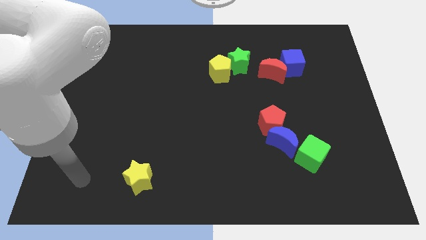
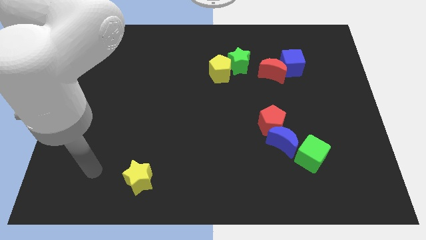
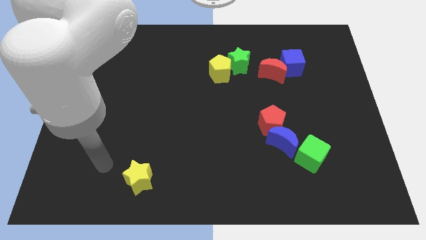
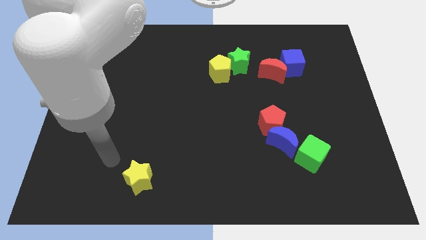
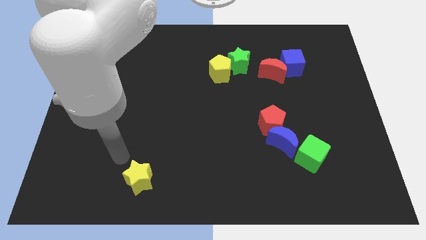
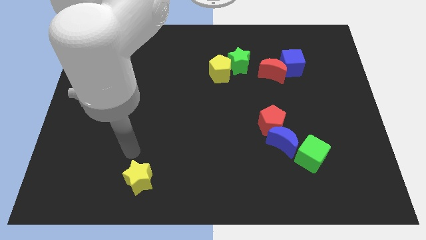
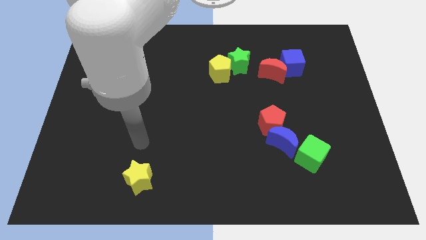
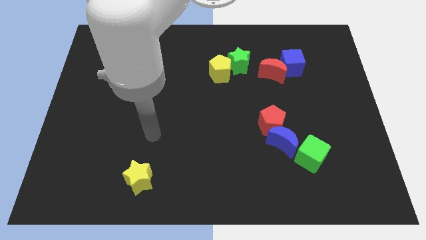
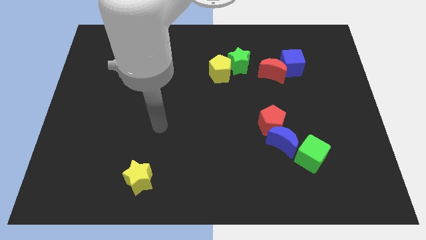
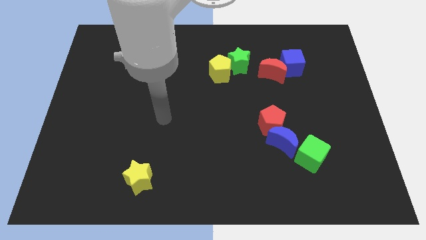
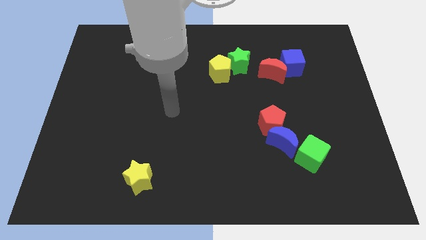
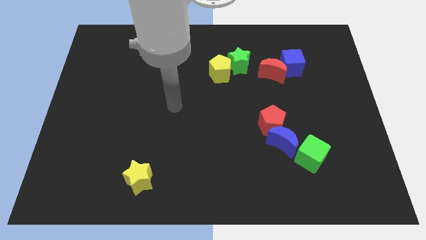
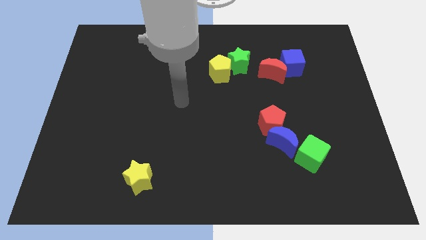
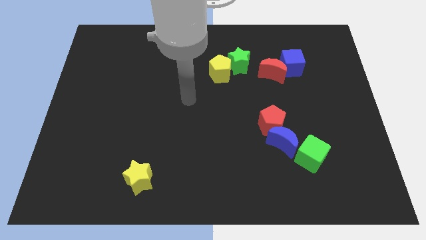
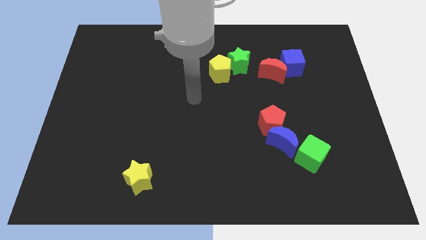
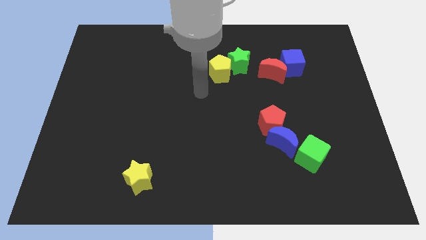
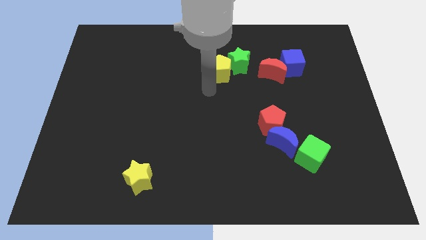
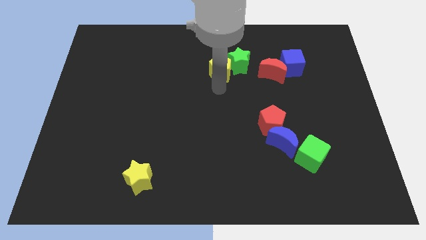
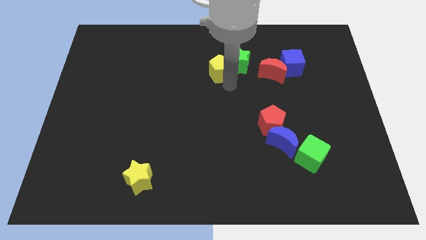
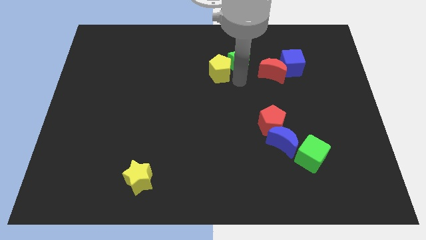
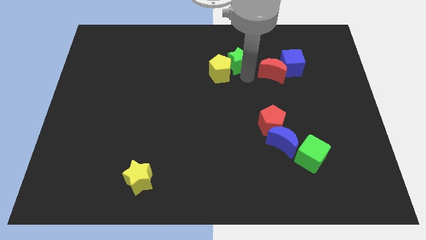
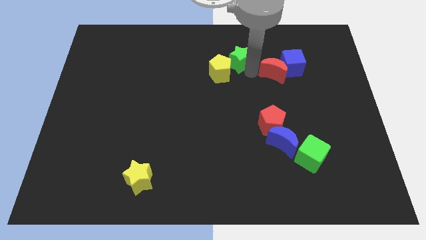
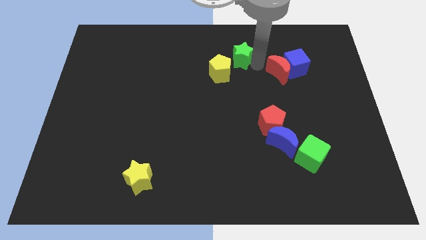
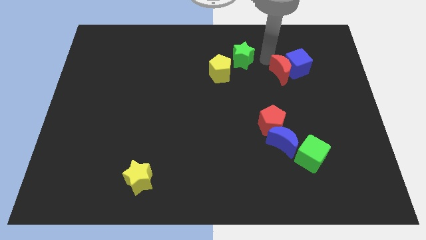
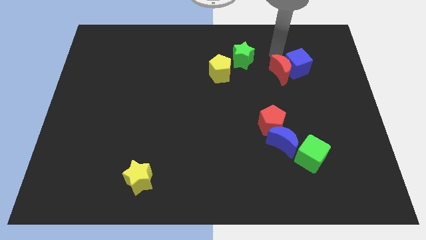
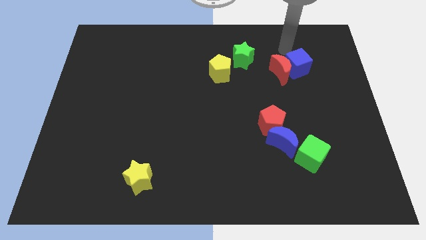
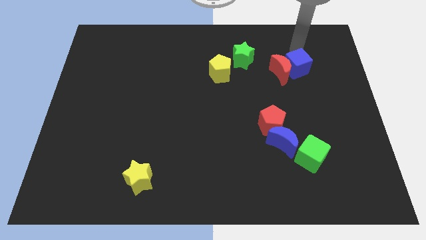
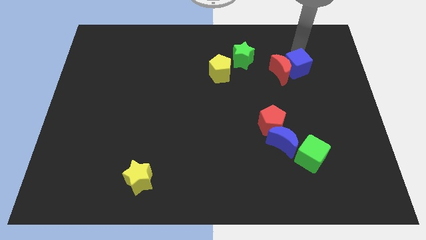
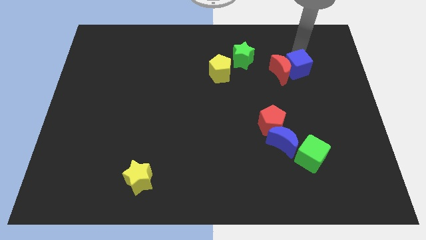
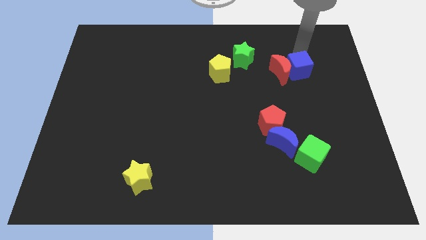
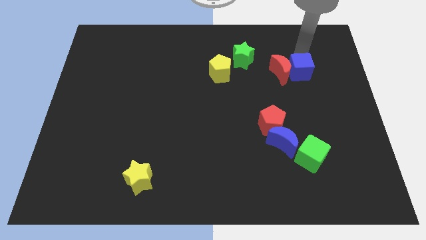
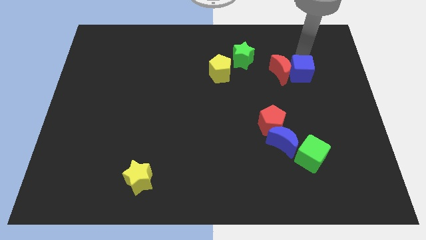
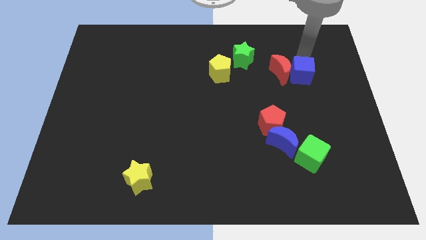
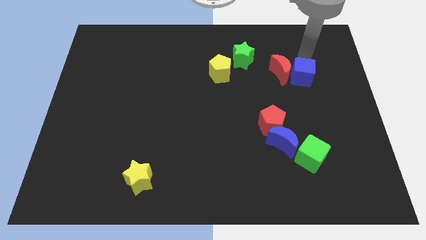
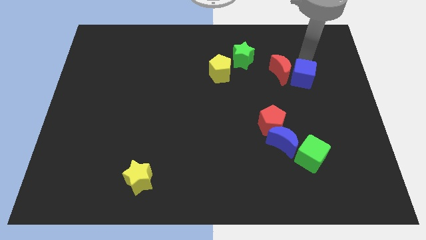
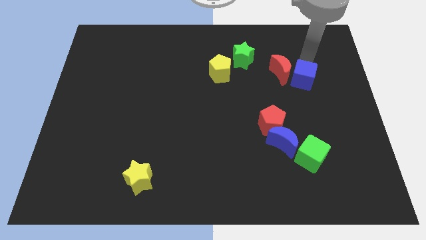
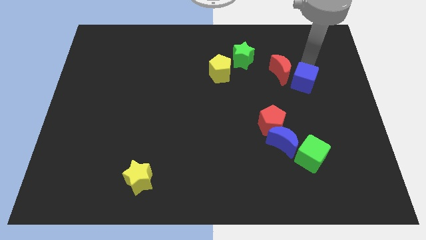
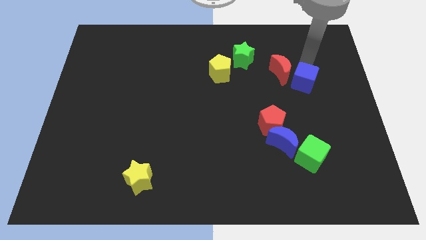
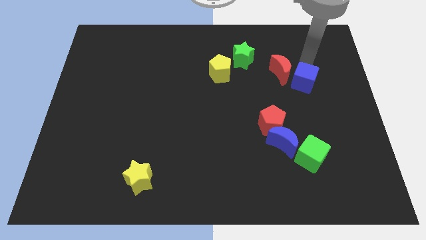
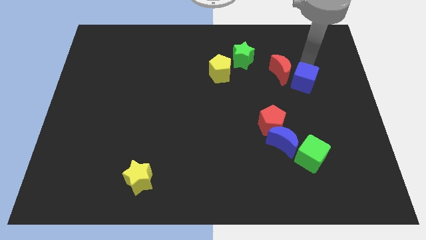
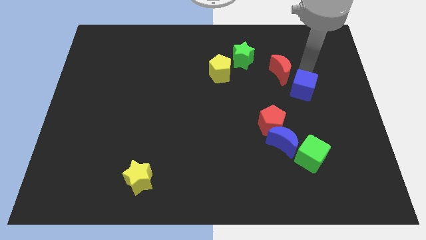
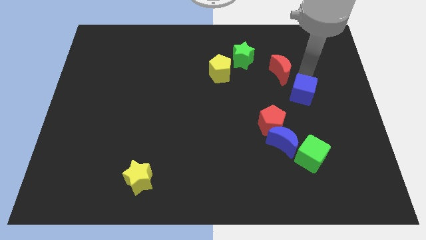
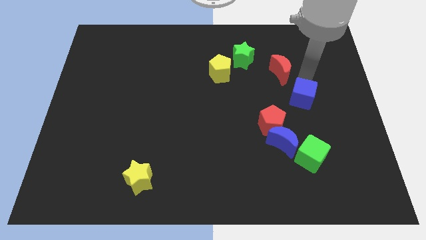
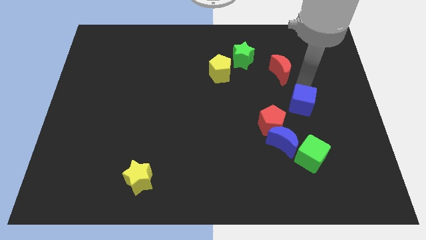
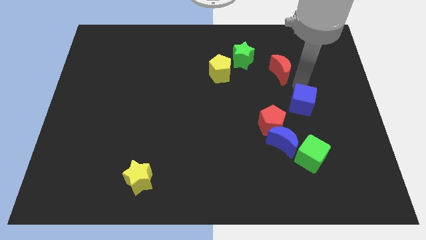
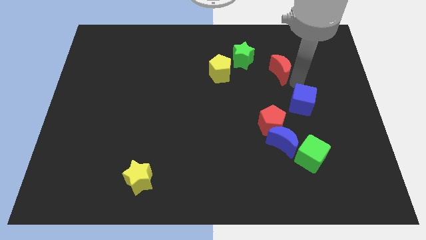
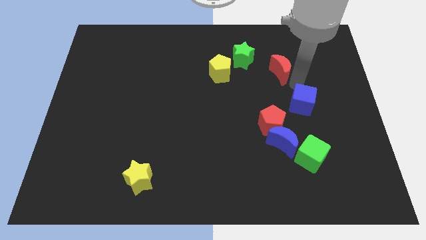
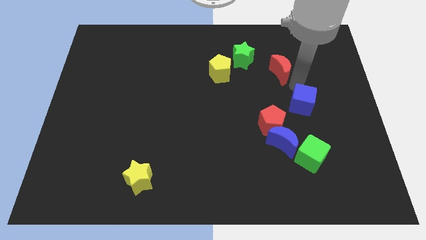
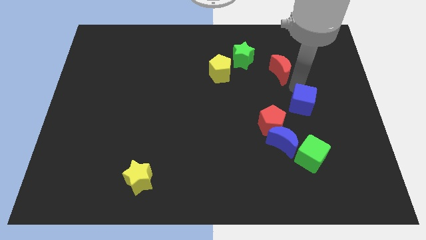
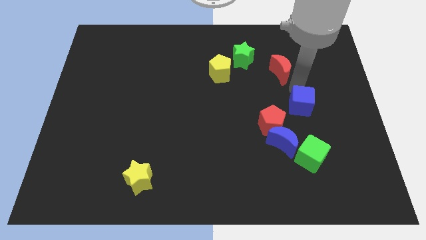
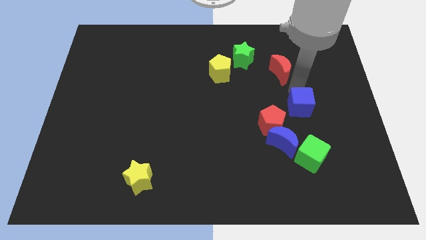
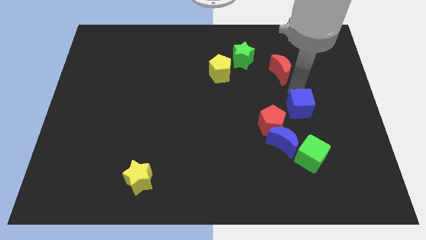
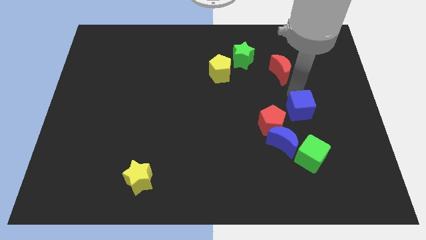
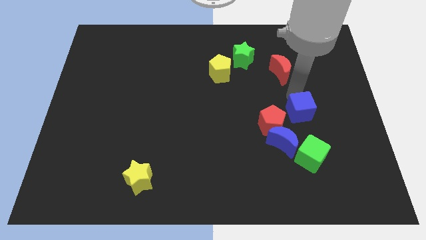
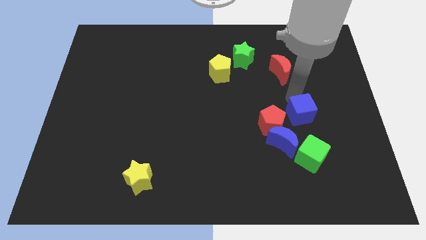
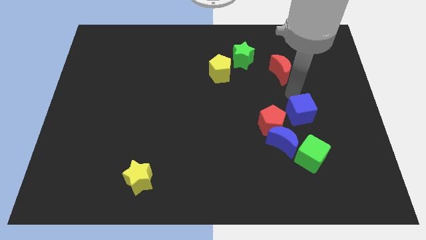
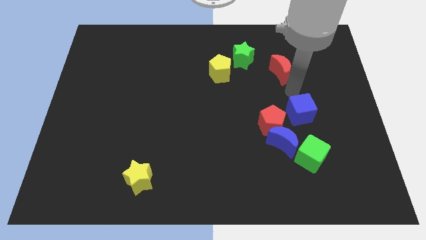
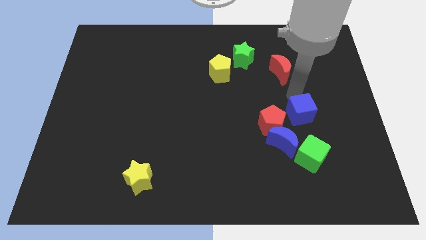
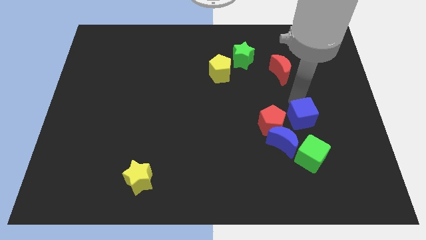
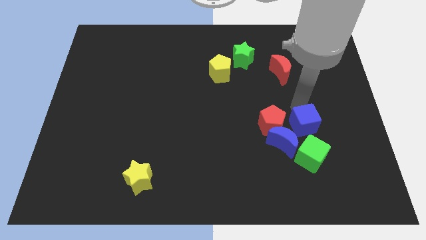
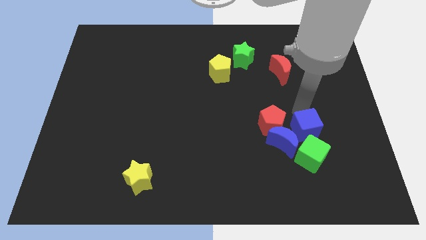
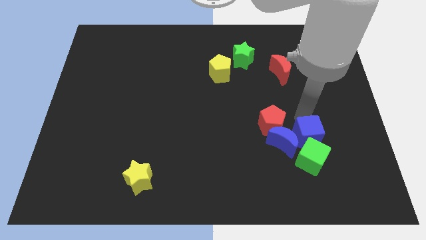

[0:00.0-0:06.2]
push the blue cube close to the green cube

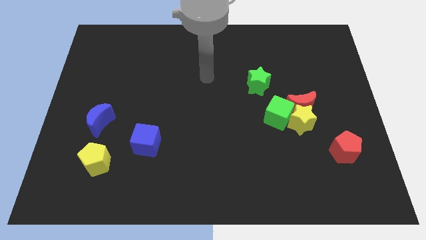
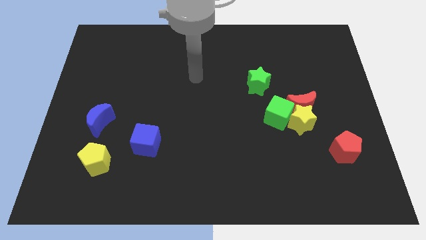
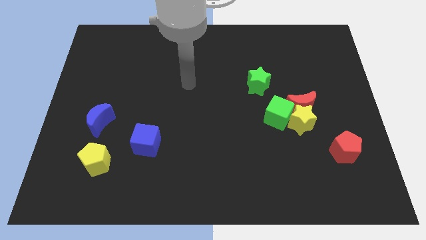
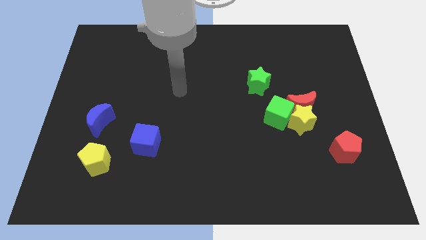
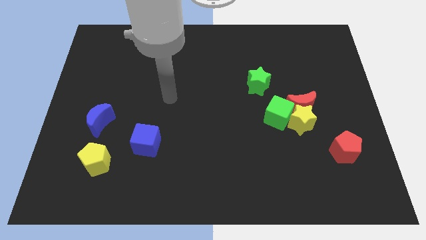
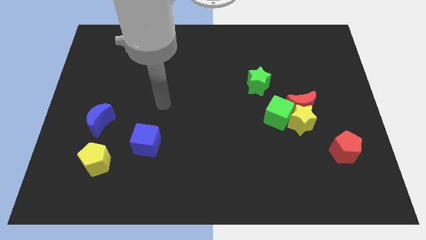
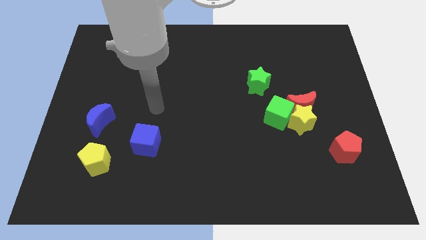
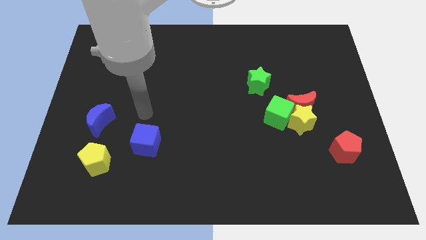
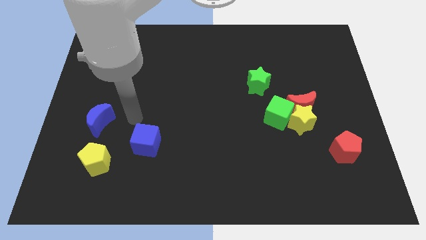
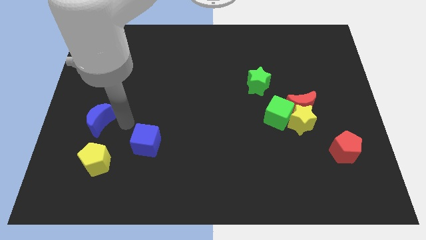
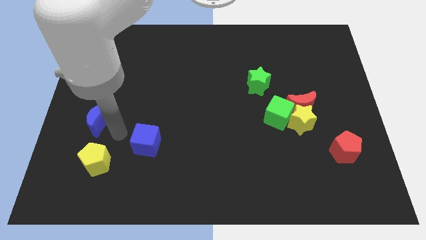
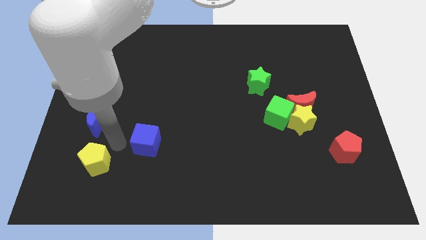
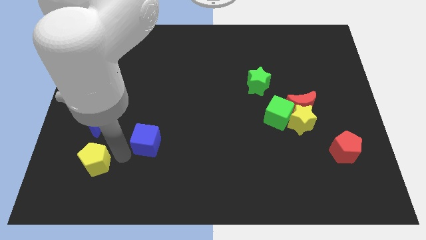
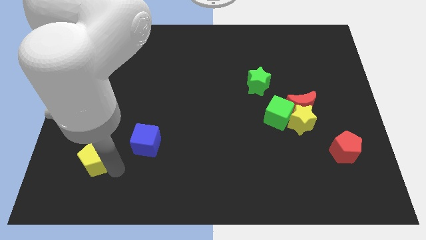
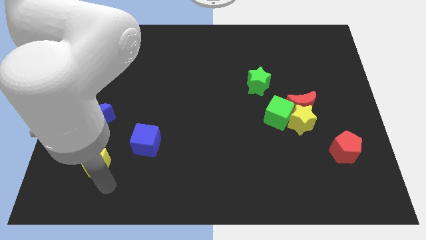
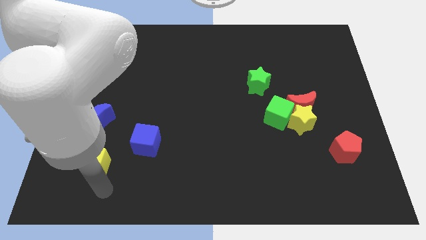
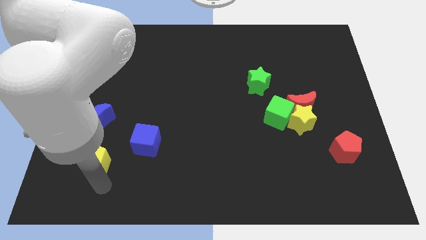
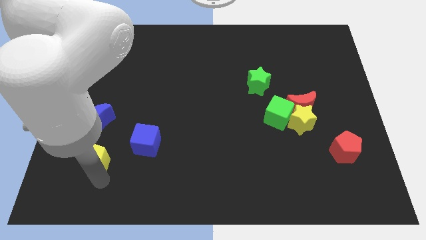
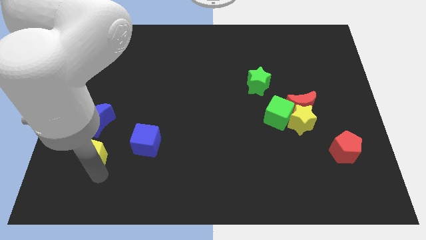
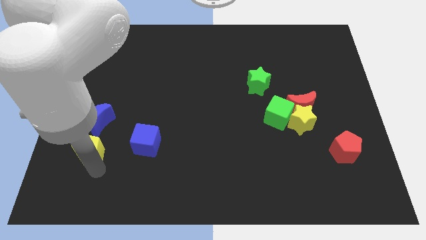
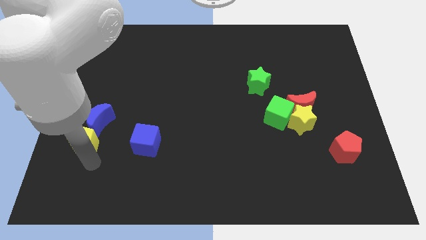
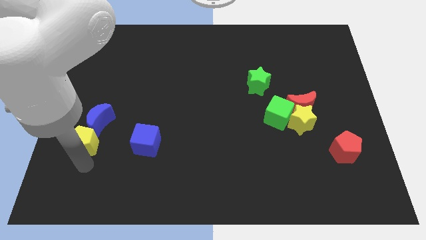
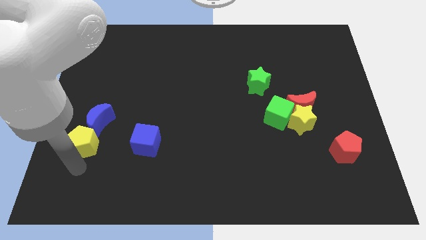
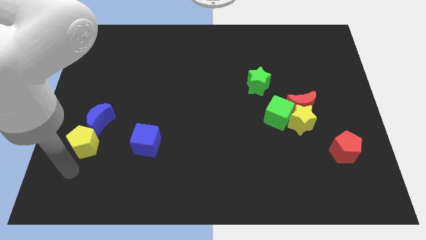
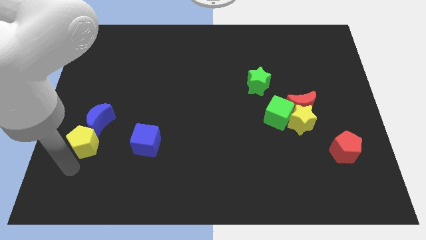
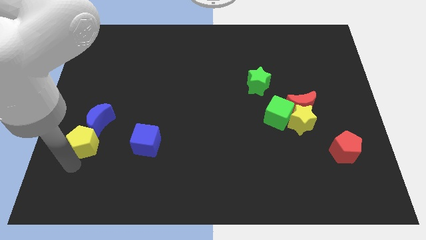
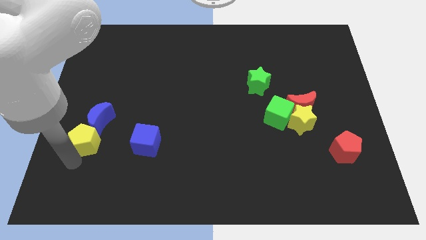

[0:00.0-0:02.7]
put the yellow pentagon next to the blue moon
